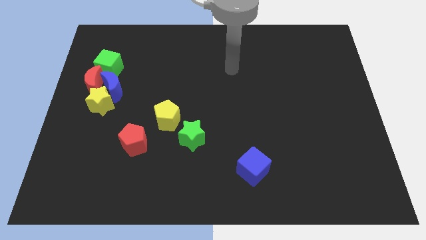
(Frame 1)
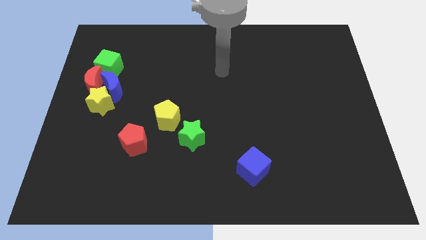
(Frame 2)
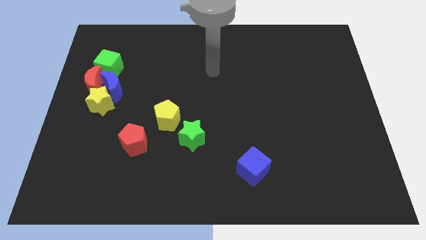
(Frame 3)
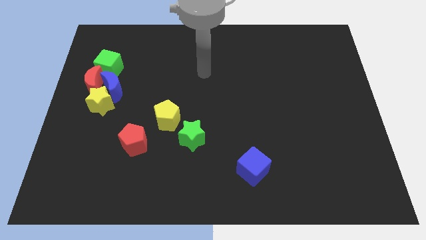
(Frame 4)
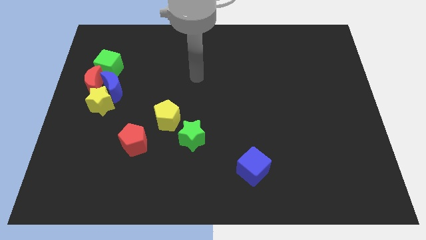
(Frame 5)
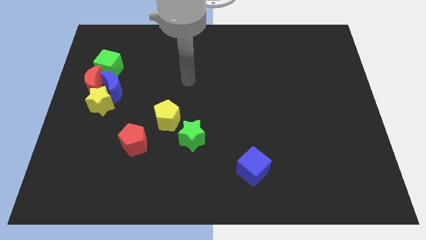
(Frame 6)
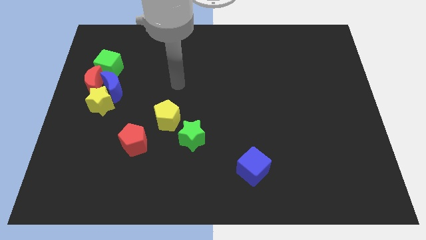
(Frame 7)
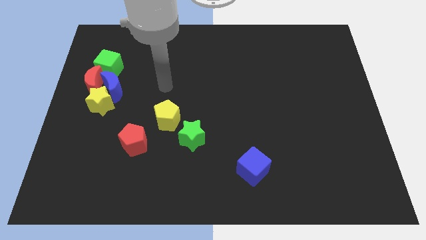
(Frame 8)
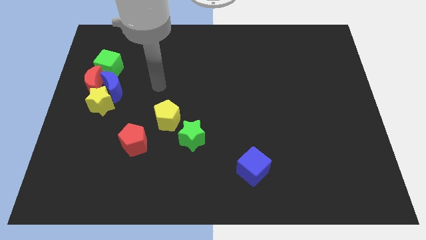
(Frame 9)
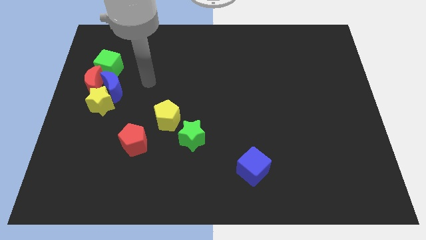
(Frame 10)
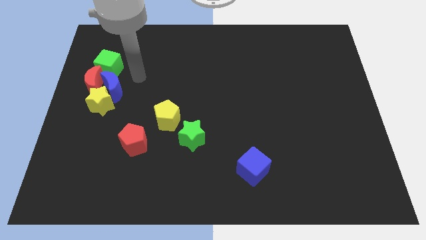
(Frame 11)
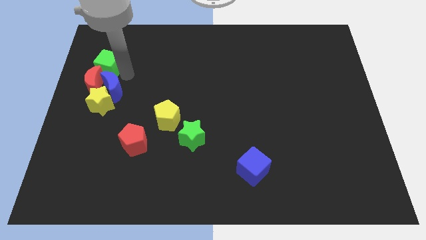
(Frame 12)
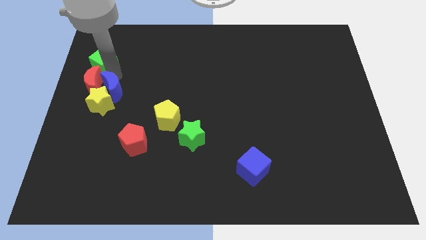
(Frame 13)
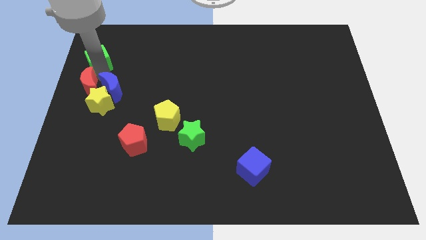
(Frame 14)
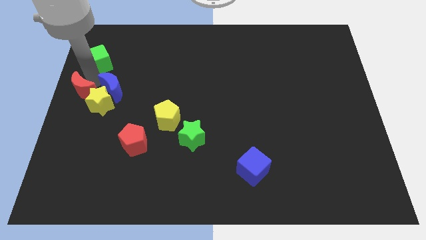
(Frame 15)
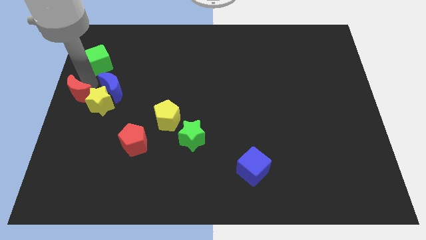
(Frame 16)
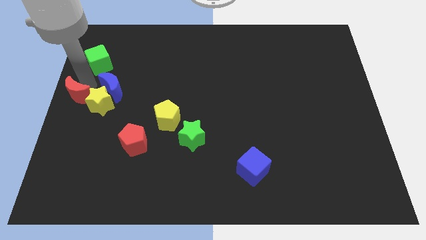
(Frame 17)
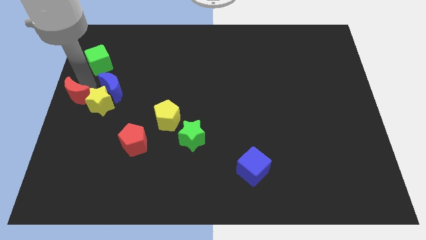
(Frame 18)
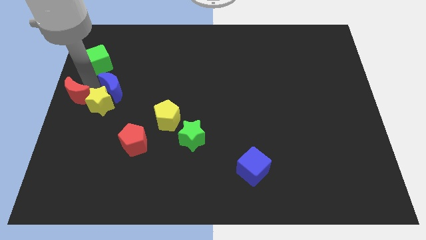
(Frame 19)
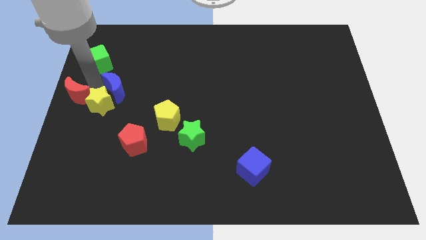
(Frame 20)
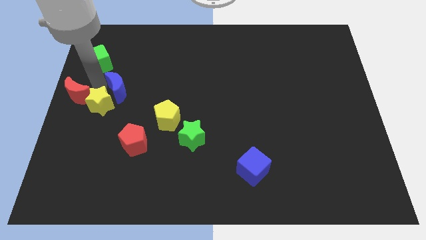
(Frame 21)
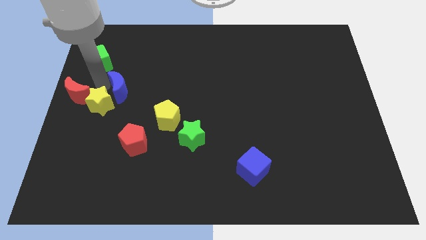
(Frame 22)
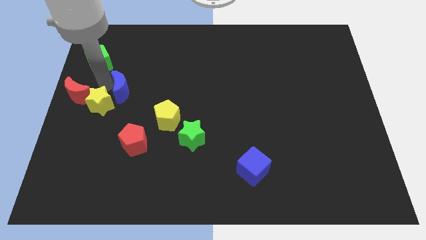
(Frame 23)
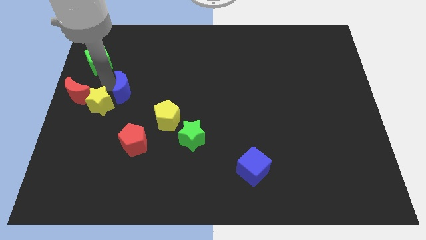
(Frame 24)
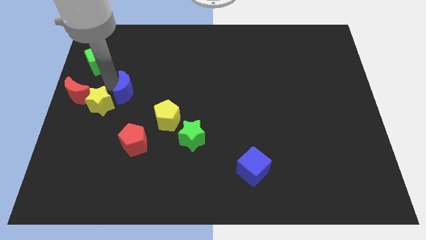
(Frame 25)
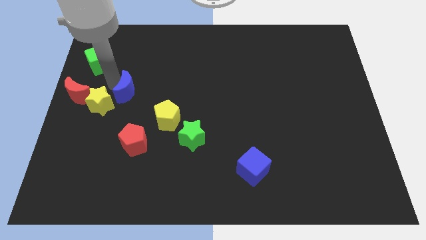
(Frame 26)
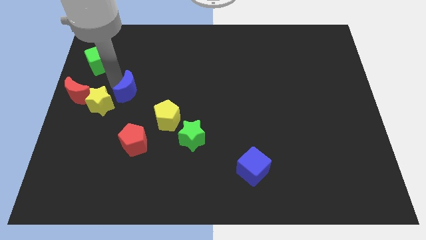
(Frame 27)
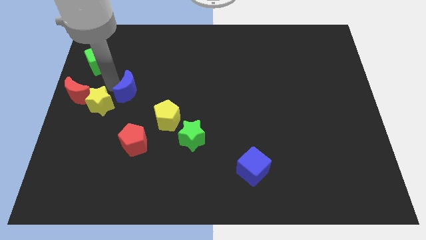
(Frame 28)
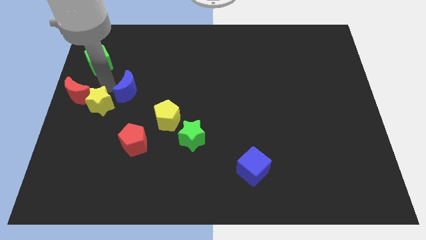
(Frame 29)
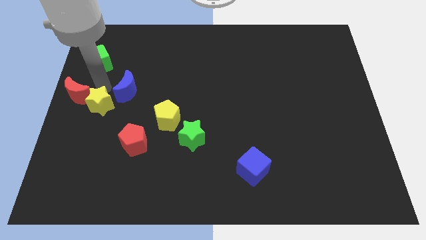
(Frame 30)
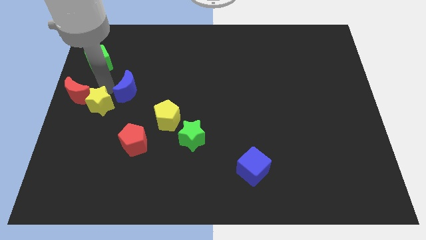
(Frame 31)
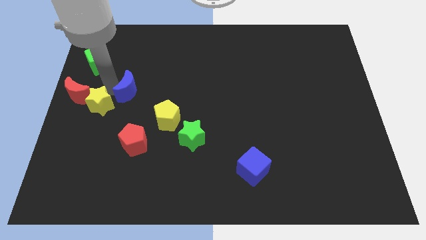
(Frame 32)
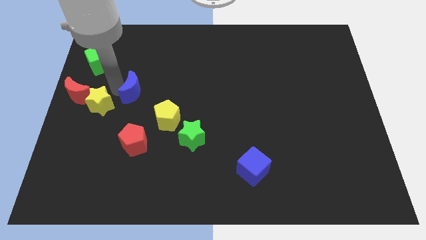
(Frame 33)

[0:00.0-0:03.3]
separate the blue moon from the red moon, yellow star, and green cube

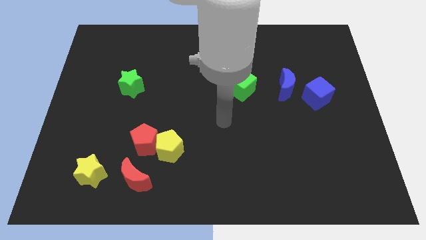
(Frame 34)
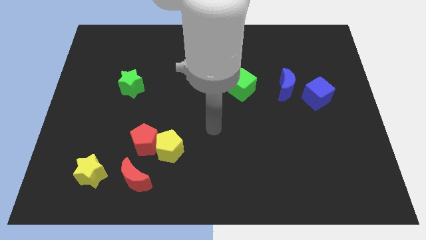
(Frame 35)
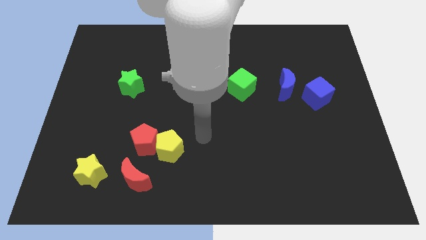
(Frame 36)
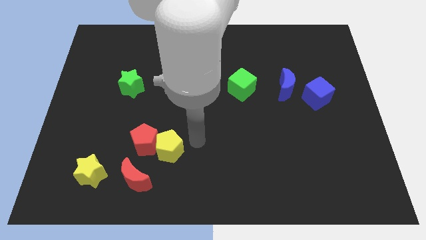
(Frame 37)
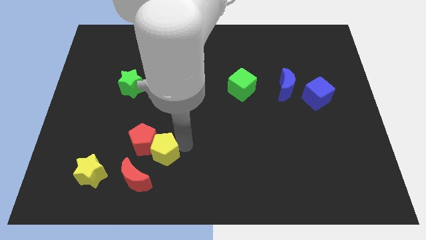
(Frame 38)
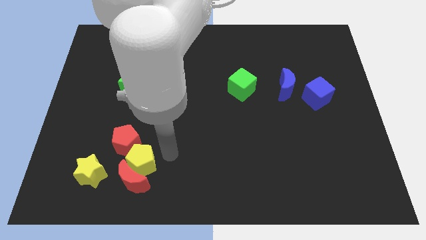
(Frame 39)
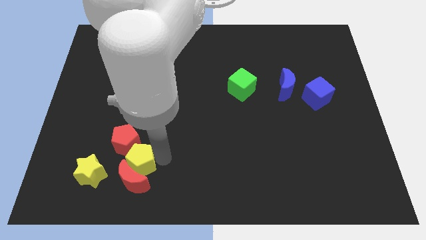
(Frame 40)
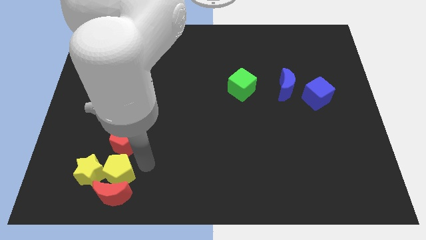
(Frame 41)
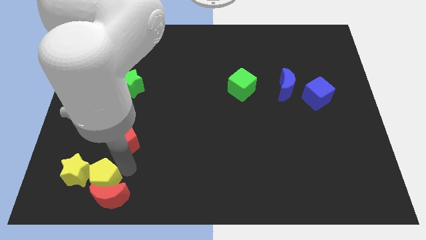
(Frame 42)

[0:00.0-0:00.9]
separate the red pentagon from the yellow pentagon and red moon

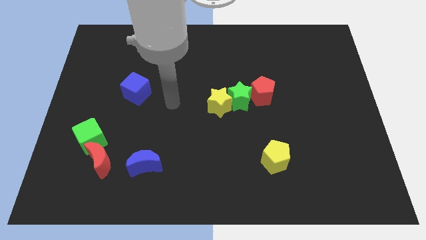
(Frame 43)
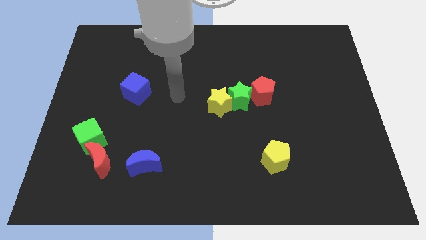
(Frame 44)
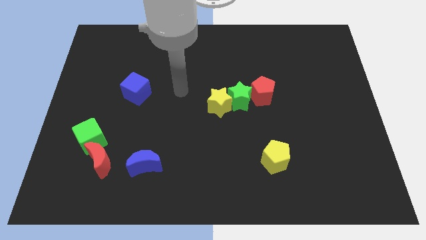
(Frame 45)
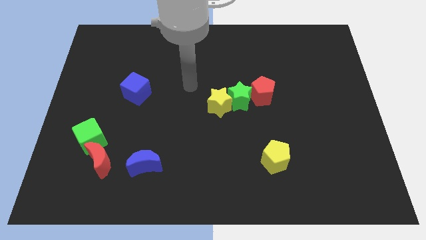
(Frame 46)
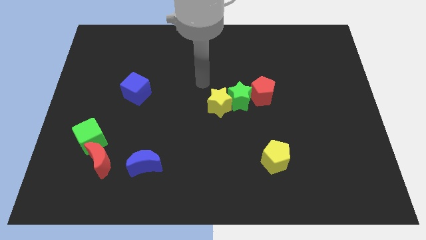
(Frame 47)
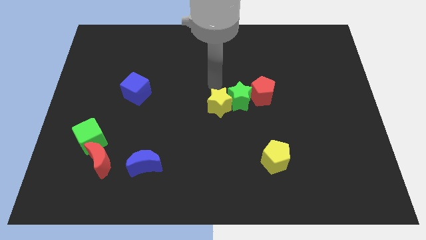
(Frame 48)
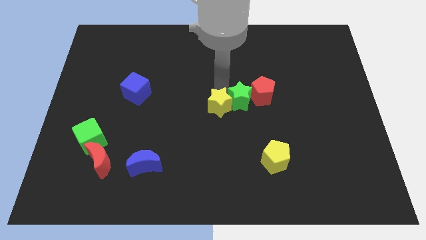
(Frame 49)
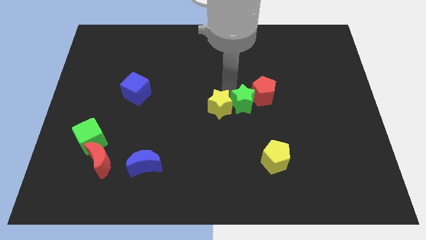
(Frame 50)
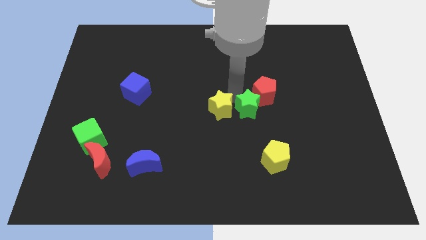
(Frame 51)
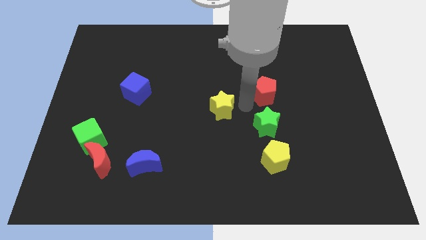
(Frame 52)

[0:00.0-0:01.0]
separate the yellow star from the green star

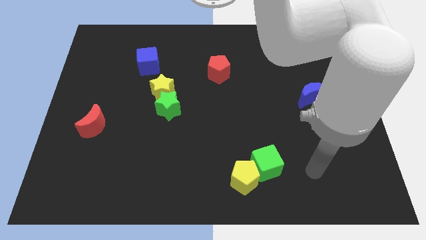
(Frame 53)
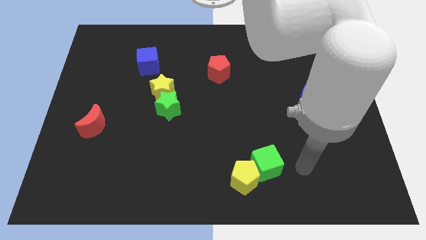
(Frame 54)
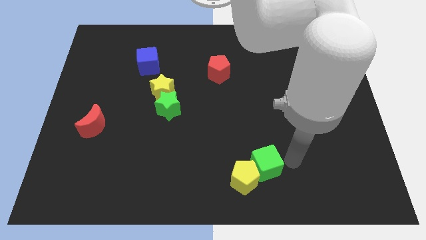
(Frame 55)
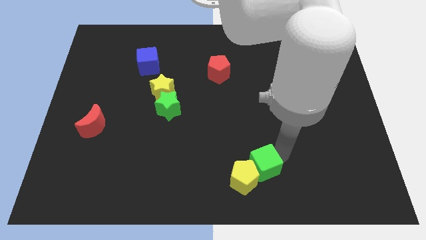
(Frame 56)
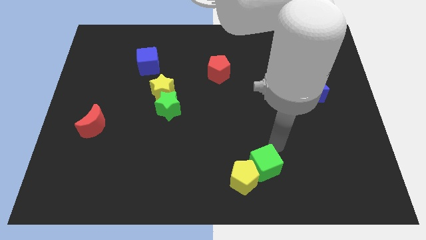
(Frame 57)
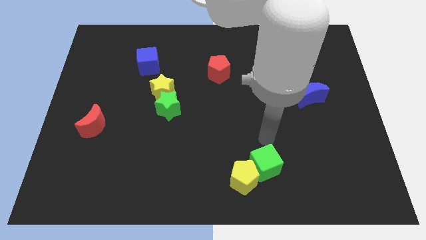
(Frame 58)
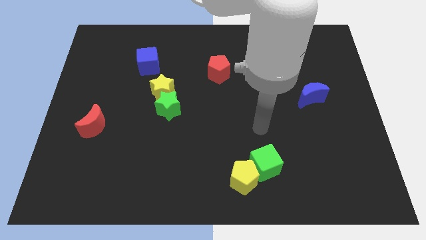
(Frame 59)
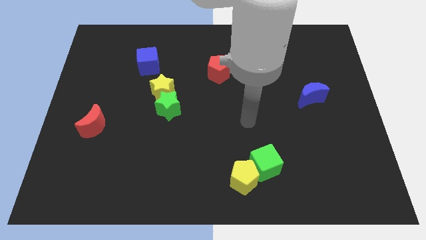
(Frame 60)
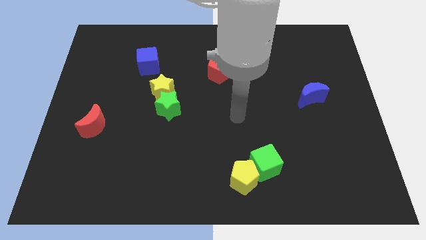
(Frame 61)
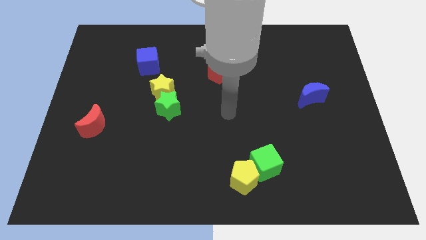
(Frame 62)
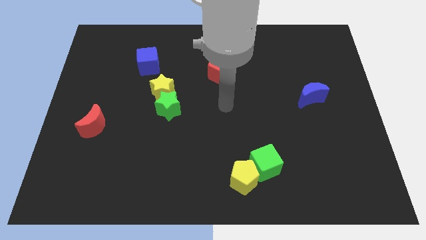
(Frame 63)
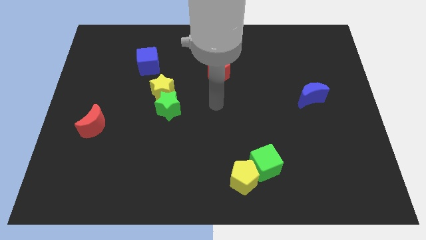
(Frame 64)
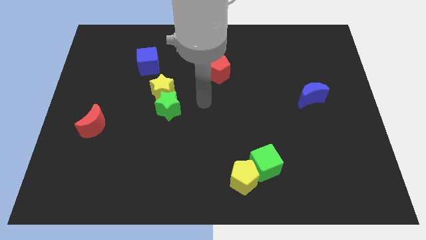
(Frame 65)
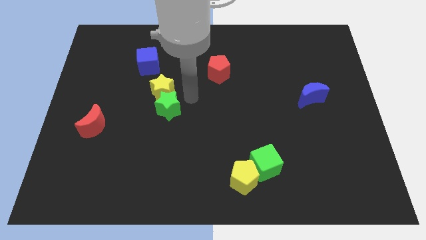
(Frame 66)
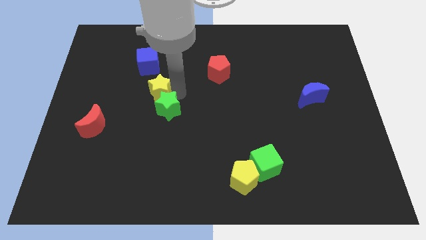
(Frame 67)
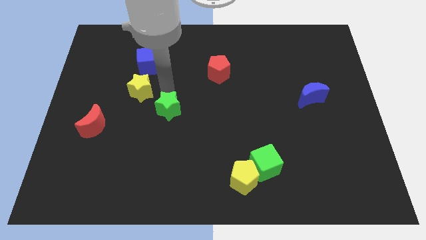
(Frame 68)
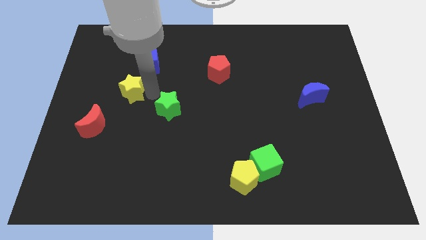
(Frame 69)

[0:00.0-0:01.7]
move the green star away from the yellow star

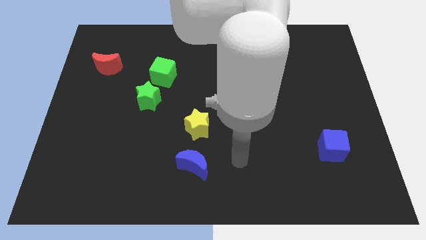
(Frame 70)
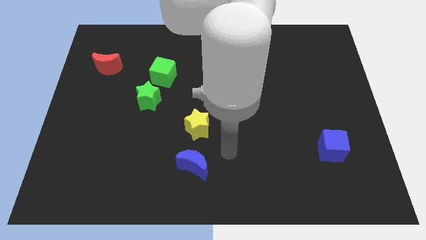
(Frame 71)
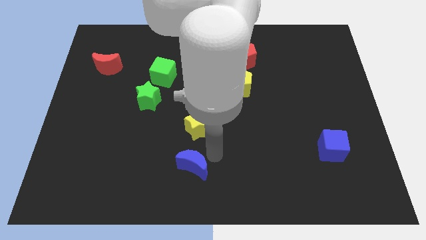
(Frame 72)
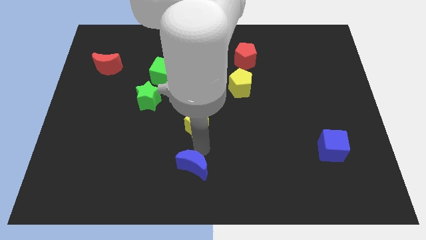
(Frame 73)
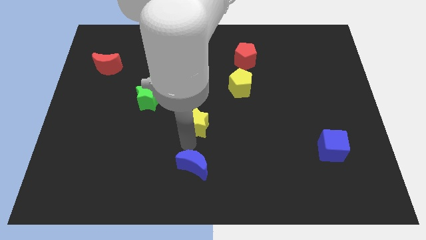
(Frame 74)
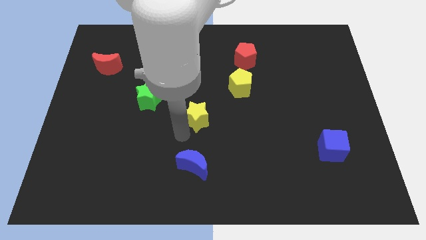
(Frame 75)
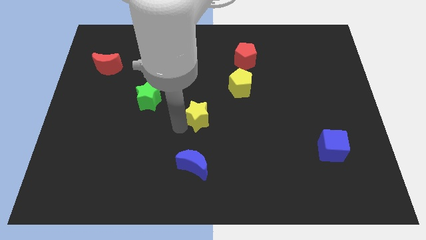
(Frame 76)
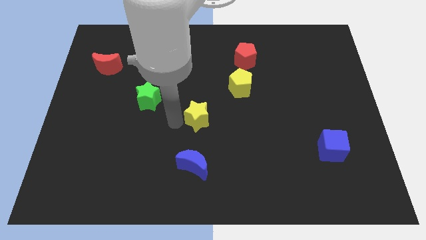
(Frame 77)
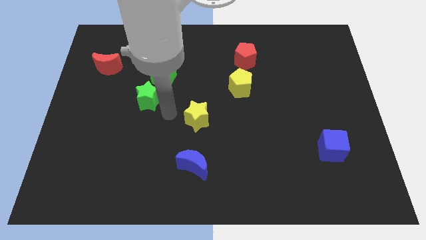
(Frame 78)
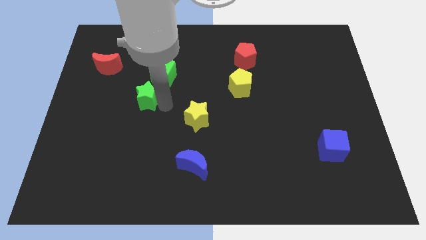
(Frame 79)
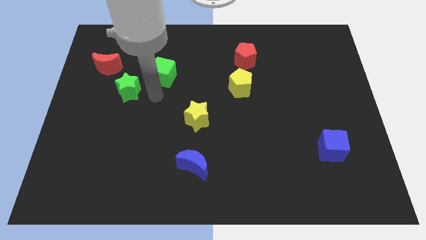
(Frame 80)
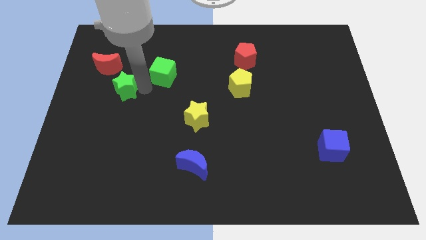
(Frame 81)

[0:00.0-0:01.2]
separate the green cube from the green star

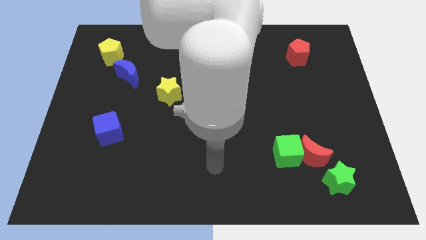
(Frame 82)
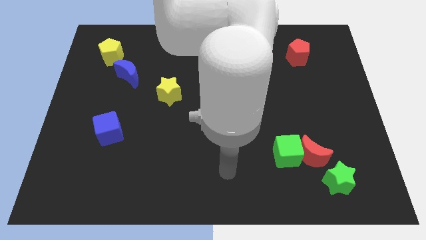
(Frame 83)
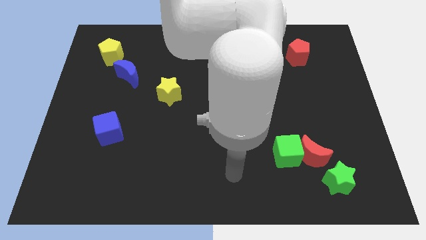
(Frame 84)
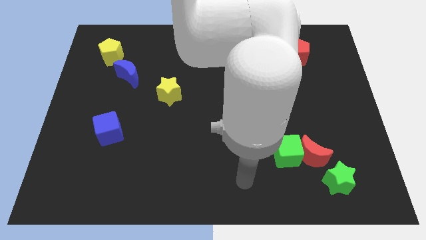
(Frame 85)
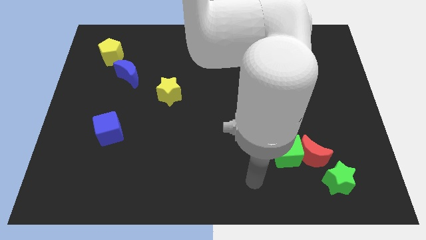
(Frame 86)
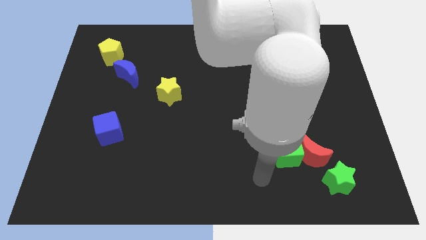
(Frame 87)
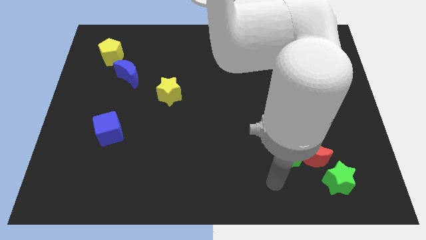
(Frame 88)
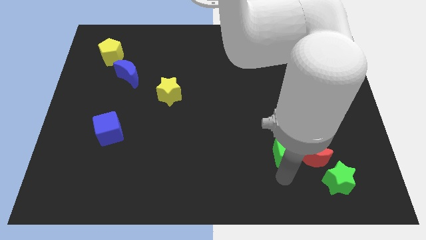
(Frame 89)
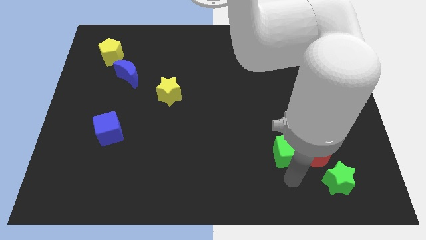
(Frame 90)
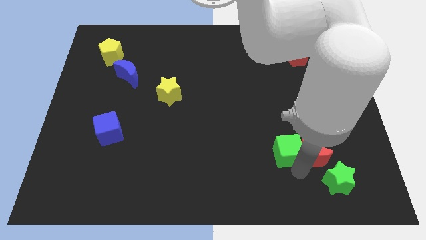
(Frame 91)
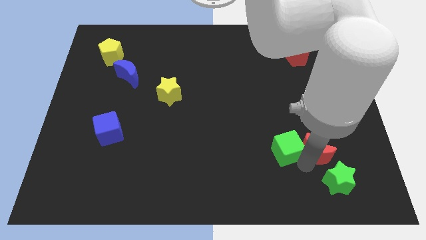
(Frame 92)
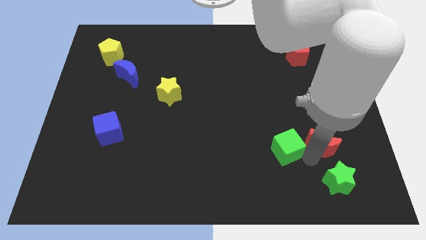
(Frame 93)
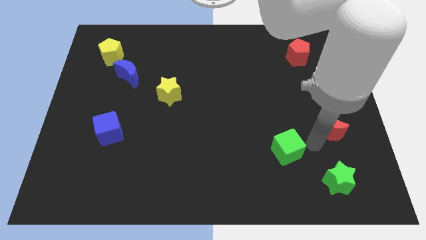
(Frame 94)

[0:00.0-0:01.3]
pull the green cube apart from the red moon
